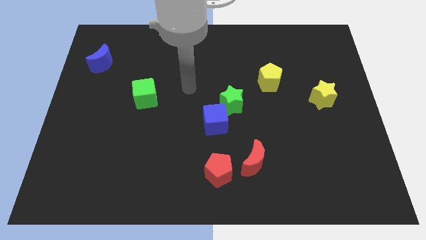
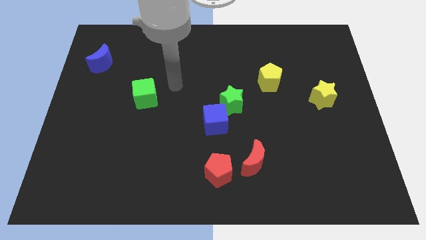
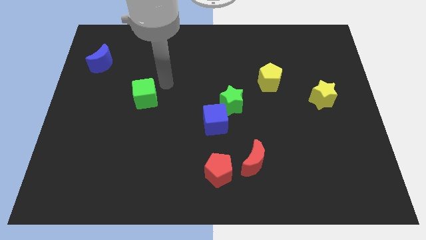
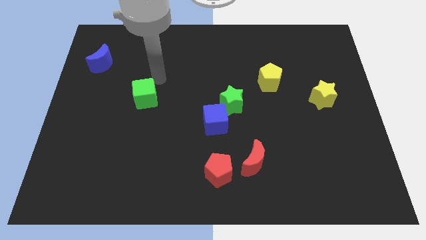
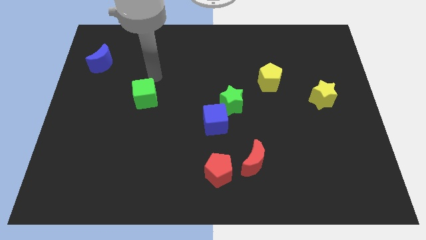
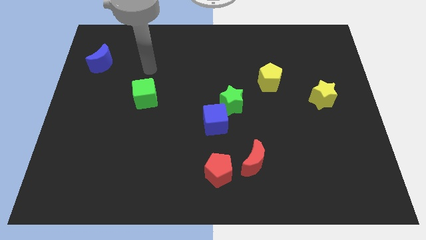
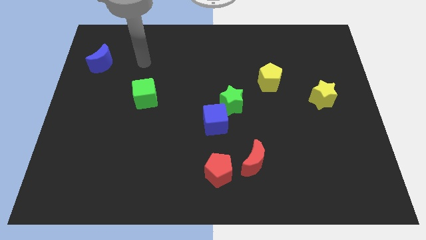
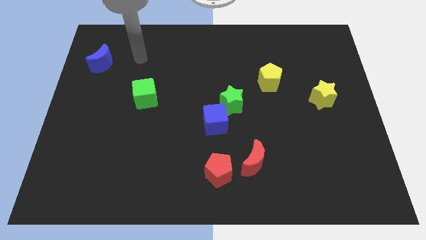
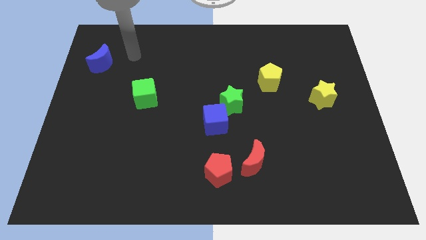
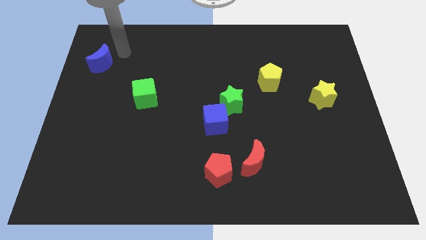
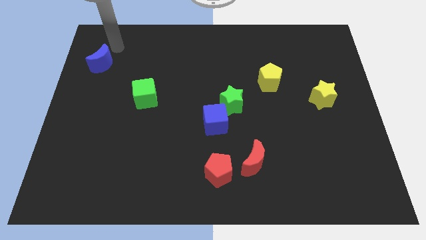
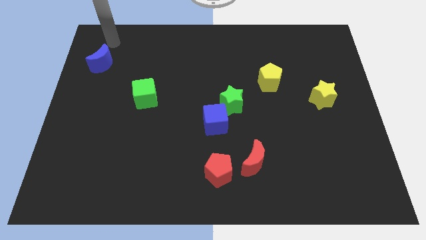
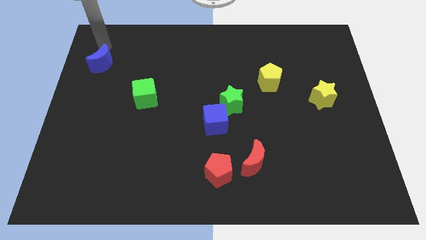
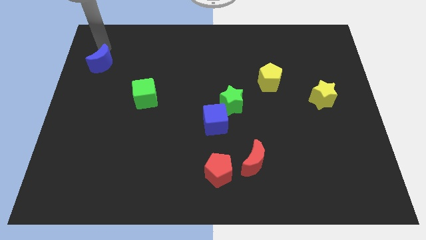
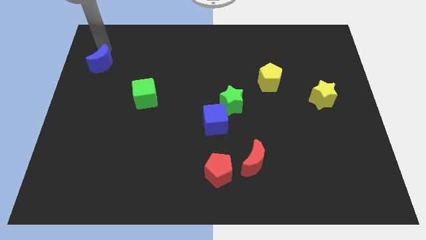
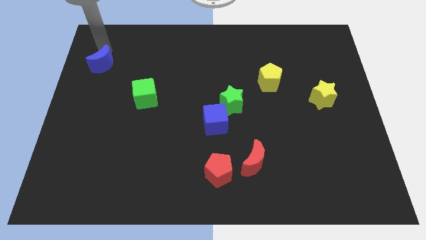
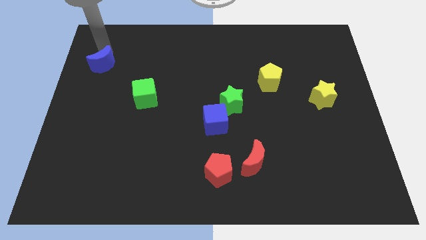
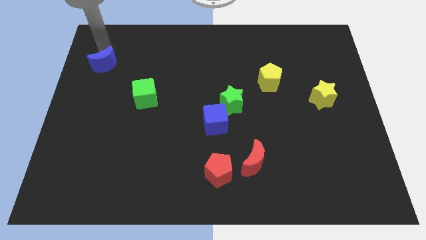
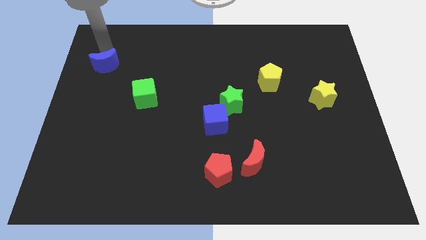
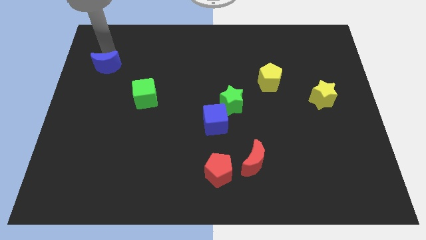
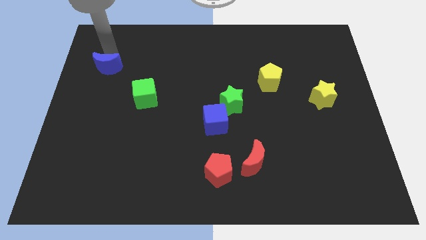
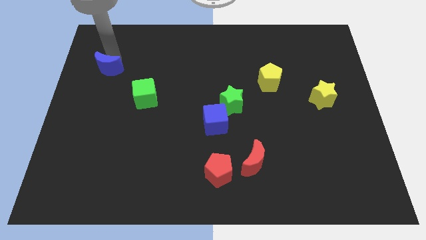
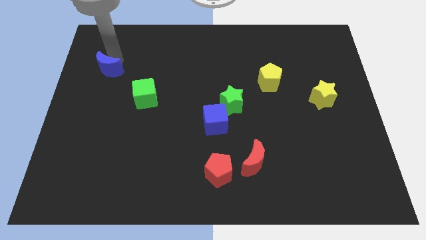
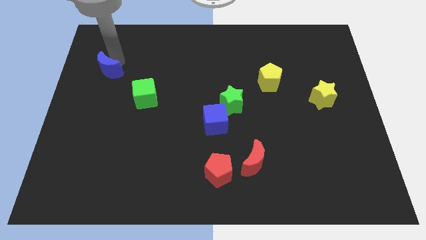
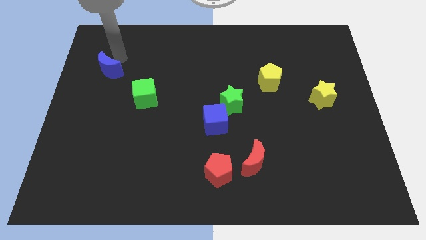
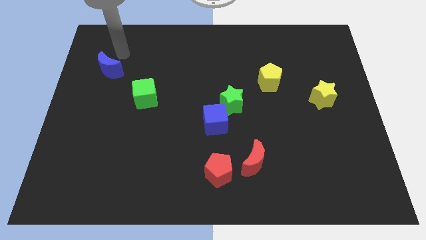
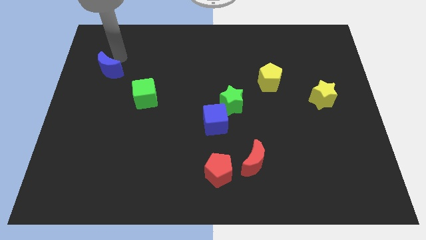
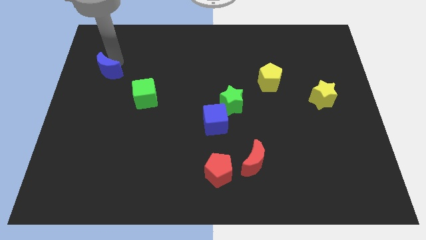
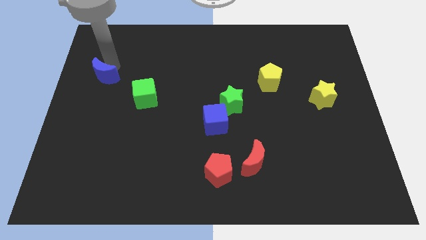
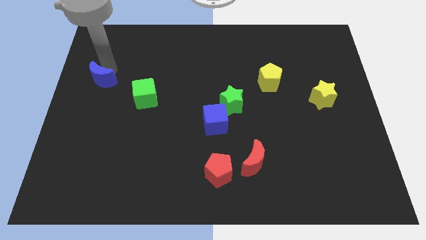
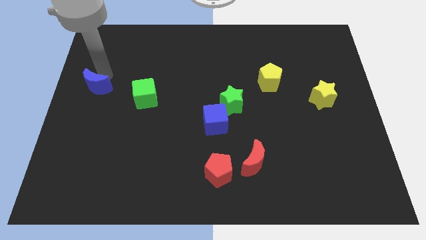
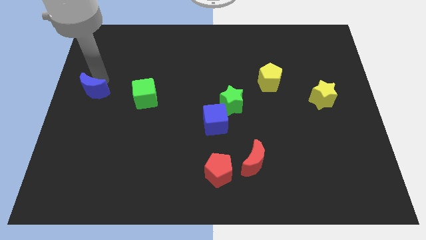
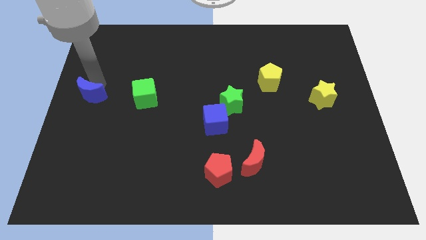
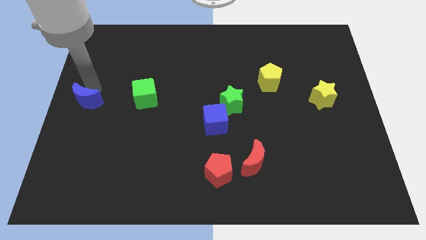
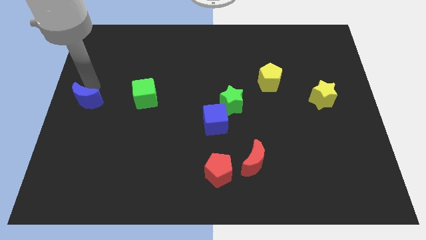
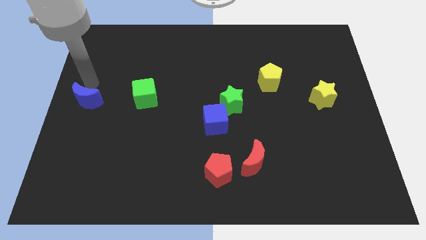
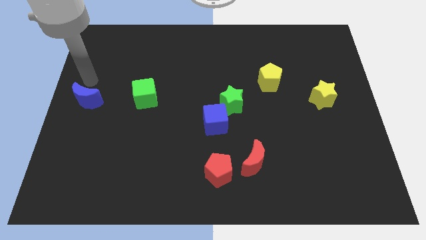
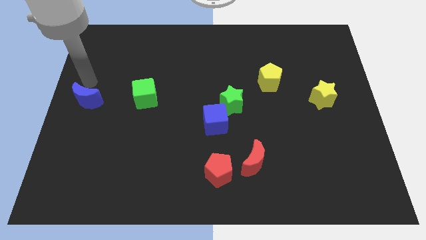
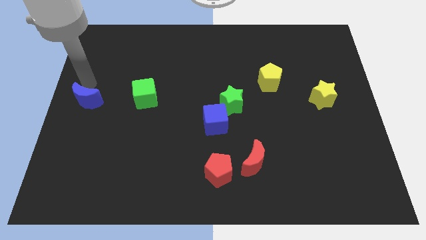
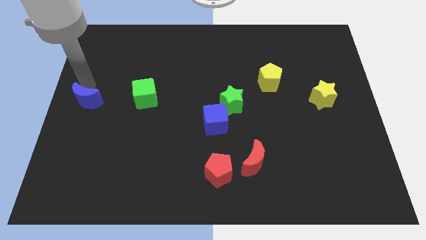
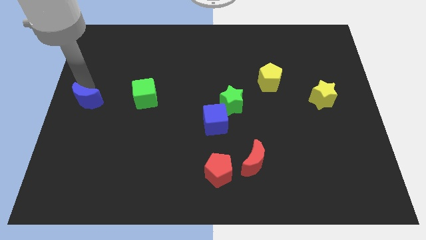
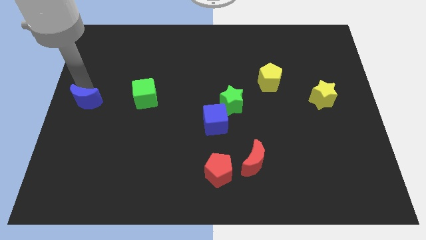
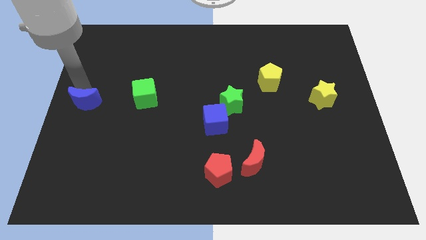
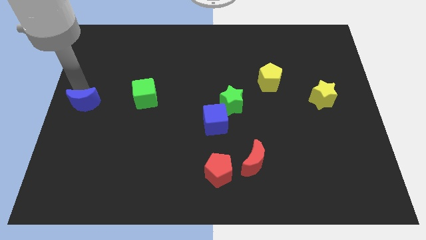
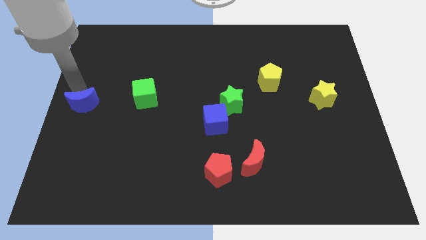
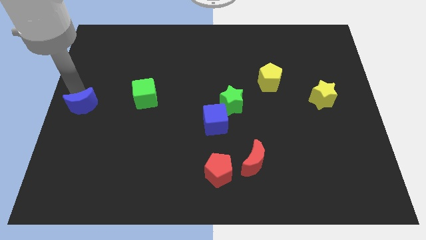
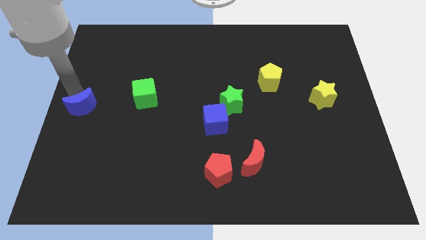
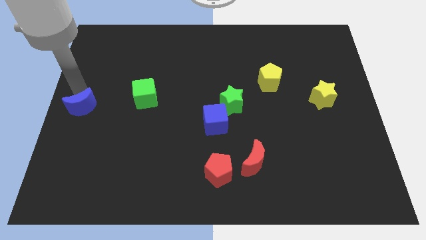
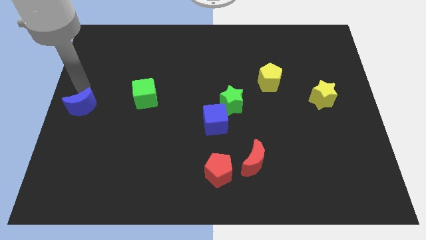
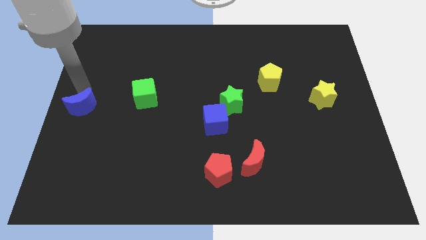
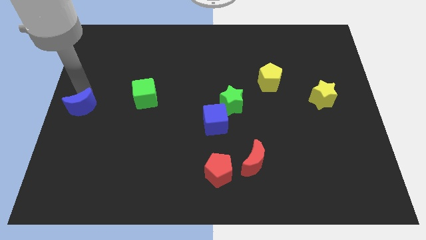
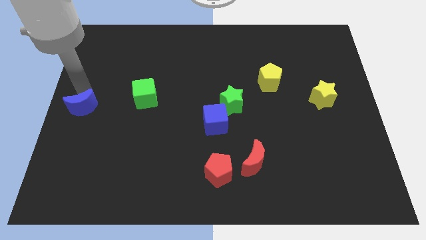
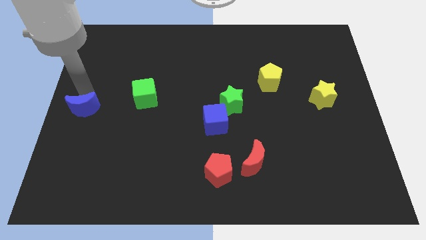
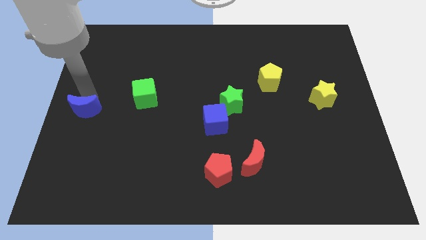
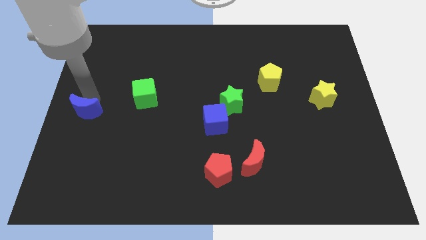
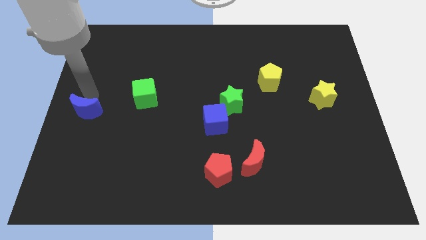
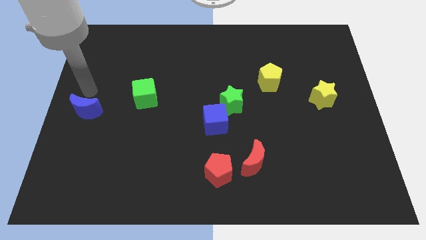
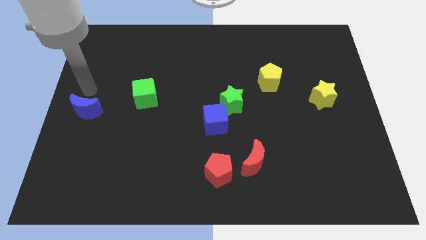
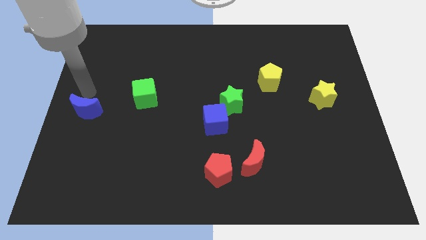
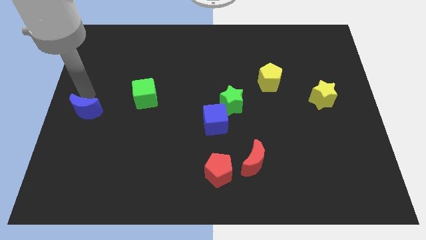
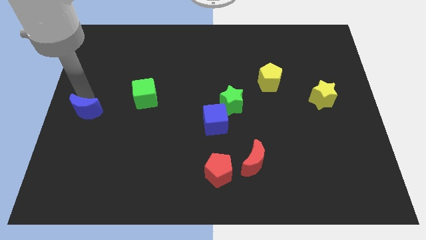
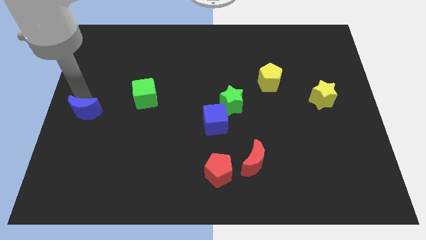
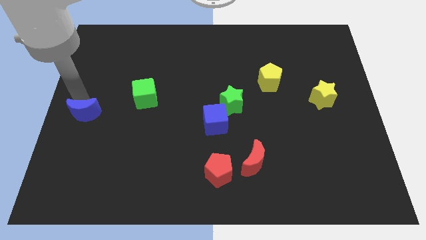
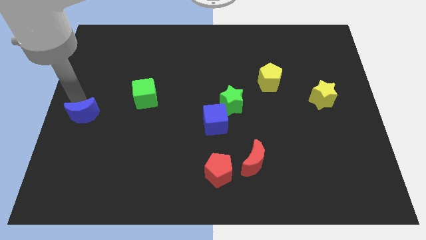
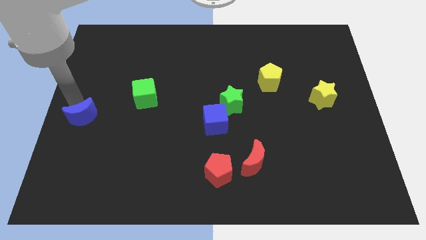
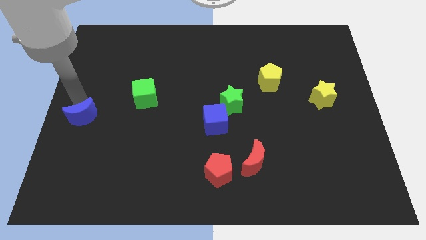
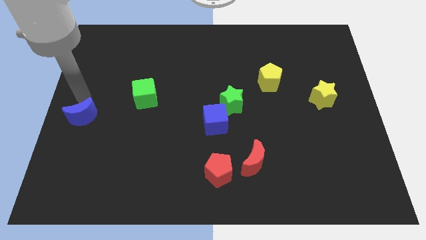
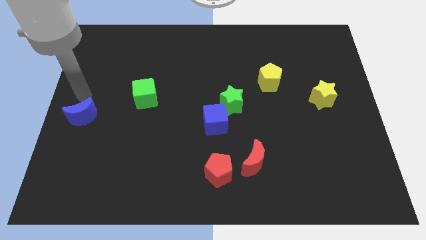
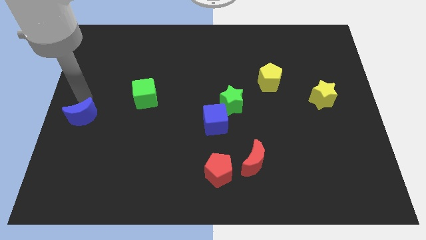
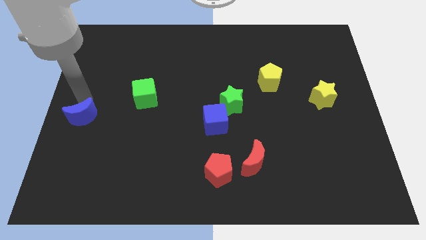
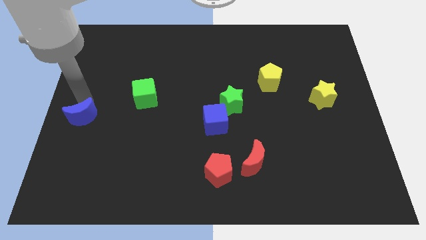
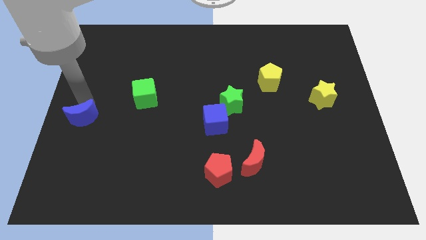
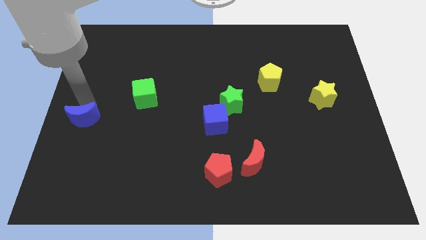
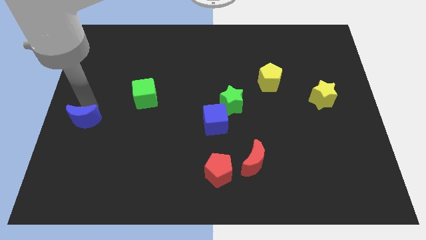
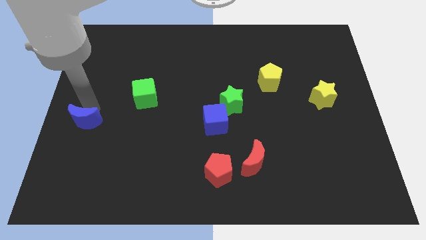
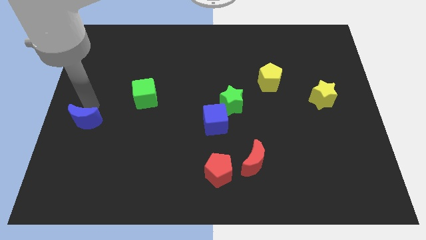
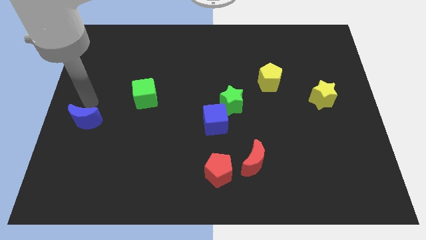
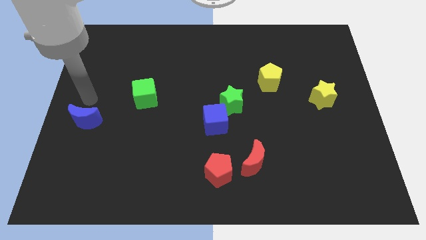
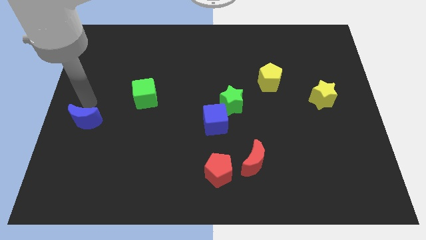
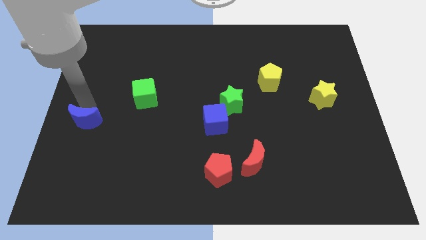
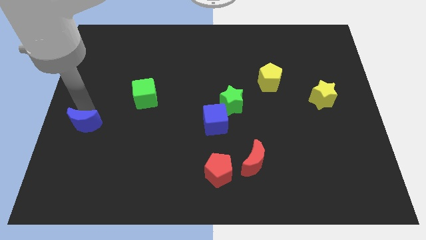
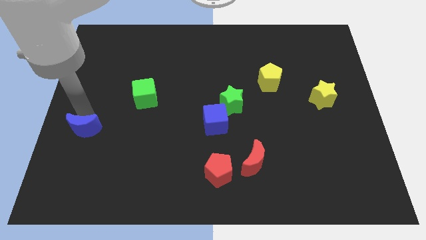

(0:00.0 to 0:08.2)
push the blue moon downwards
